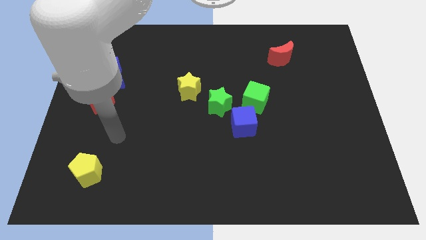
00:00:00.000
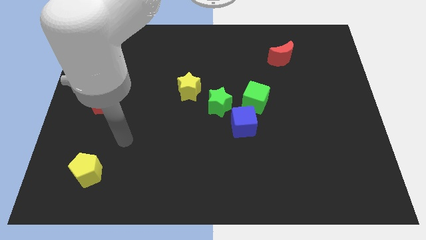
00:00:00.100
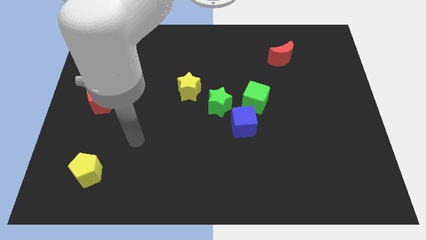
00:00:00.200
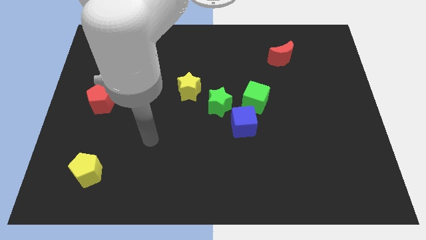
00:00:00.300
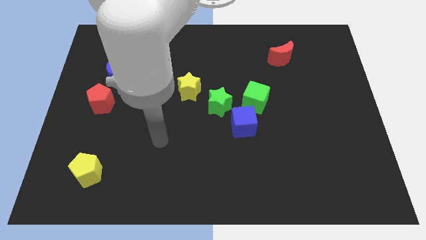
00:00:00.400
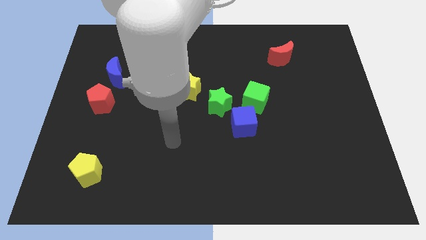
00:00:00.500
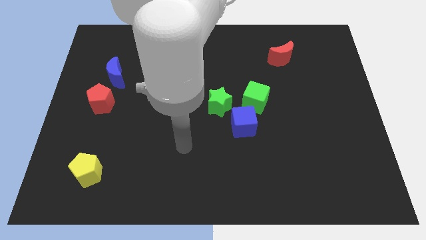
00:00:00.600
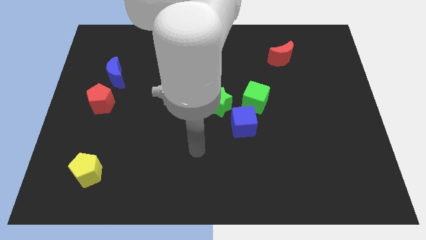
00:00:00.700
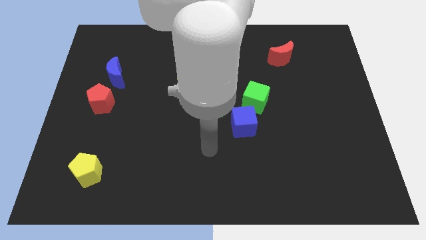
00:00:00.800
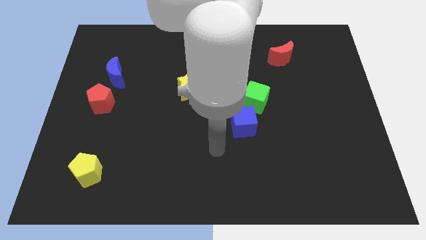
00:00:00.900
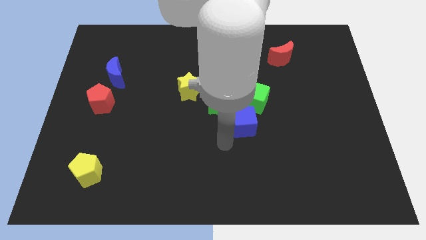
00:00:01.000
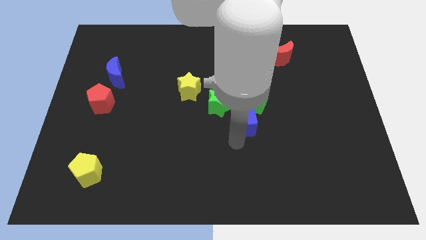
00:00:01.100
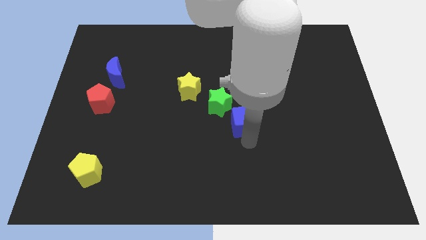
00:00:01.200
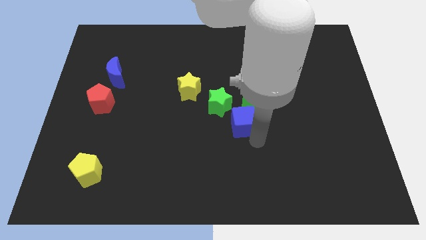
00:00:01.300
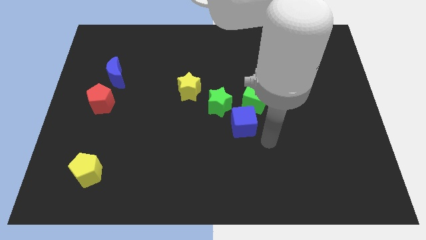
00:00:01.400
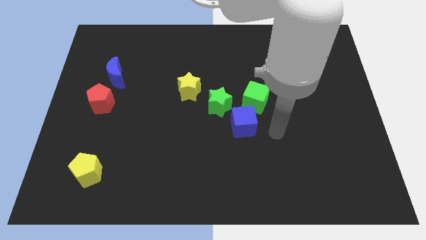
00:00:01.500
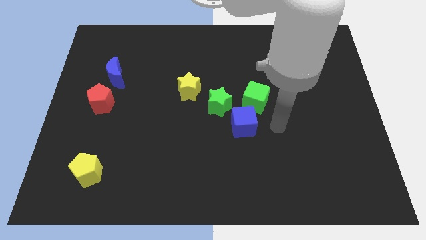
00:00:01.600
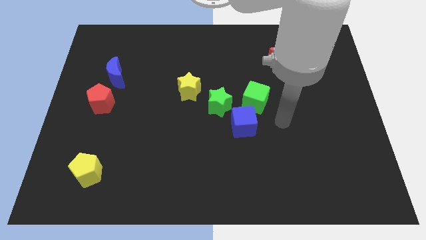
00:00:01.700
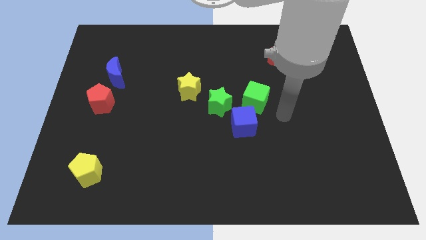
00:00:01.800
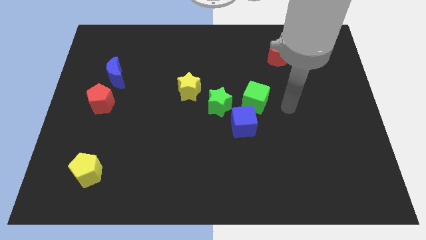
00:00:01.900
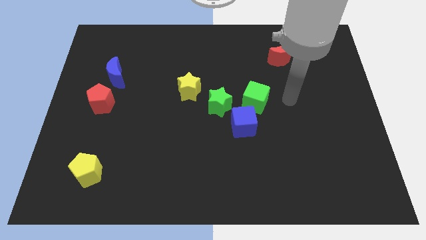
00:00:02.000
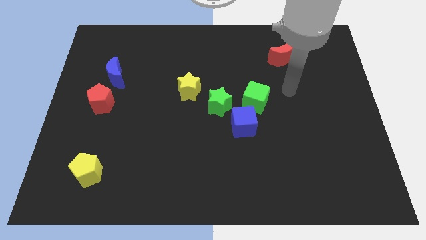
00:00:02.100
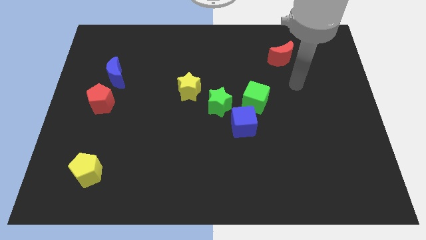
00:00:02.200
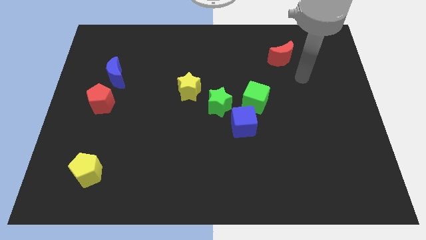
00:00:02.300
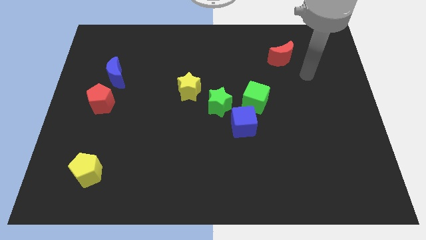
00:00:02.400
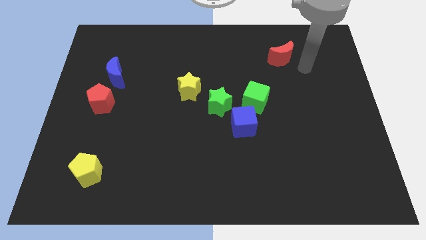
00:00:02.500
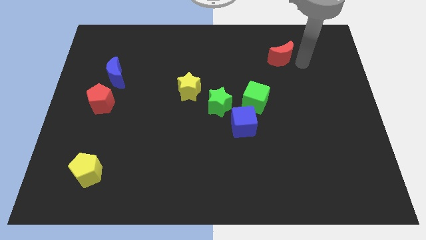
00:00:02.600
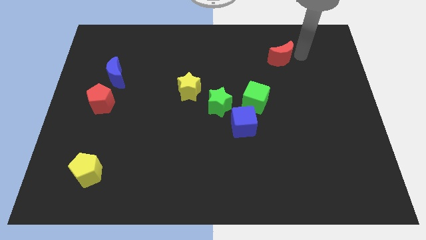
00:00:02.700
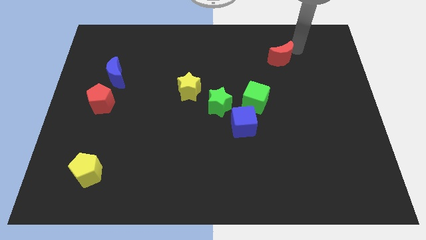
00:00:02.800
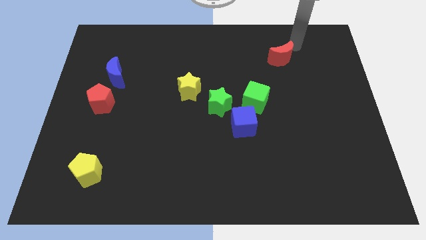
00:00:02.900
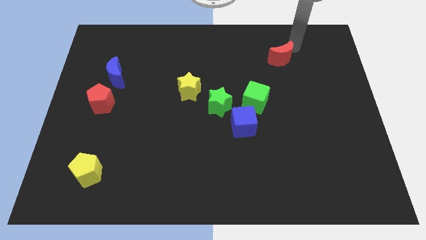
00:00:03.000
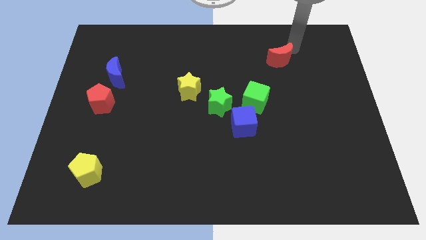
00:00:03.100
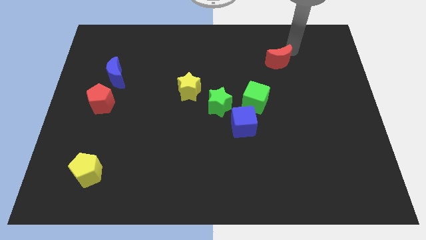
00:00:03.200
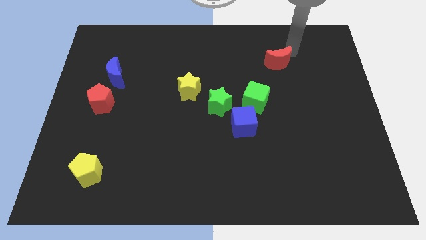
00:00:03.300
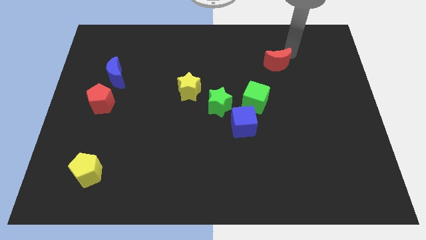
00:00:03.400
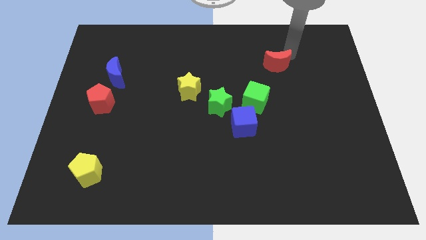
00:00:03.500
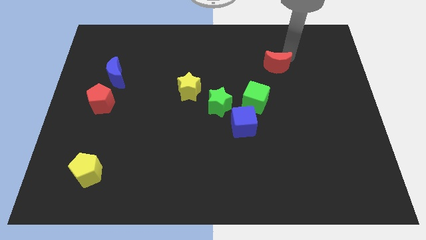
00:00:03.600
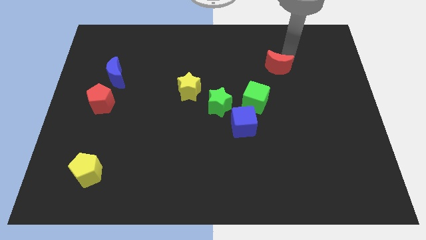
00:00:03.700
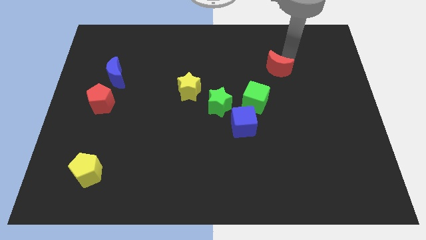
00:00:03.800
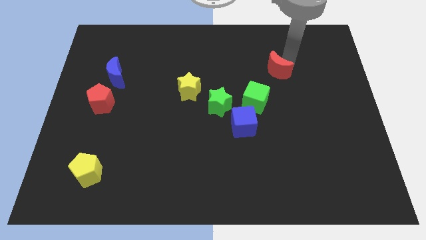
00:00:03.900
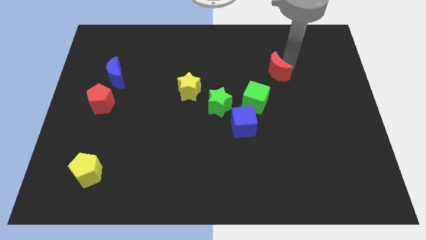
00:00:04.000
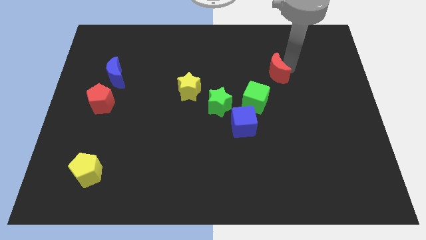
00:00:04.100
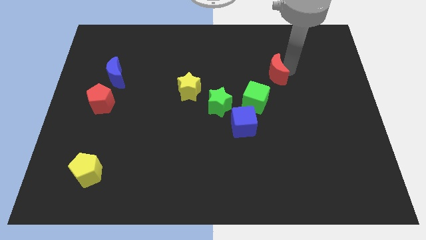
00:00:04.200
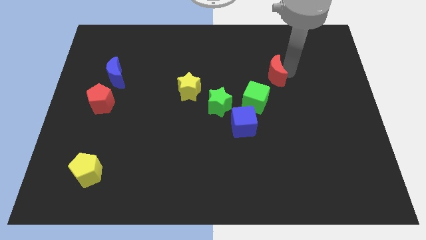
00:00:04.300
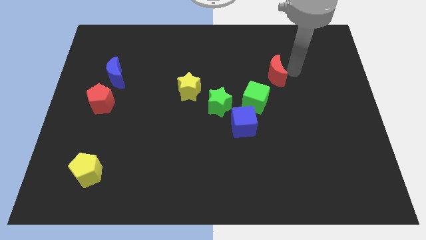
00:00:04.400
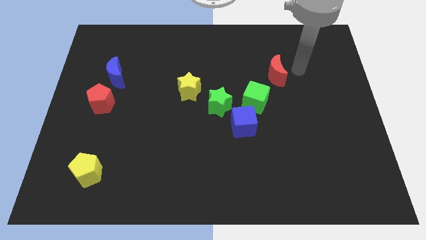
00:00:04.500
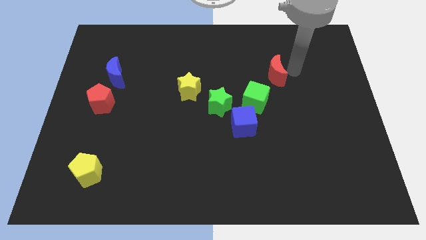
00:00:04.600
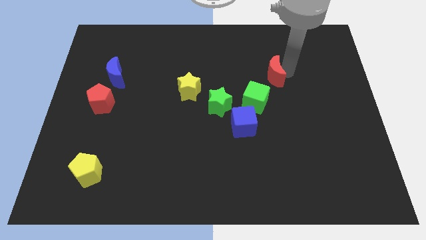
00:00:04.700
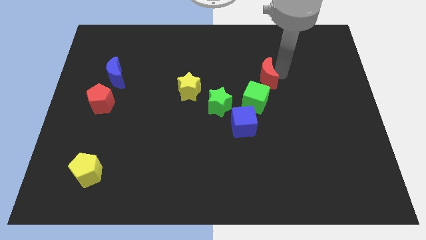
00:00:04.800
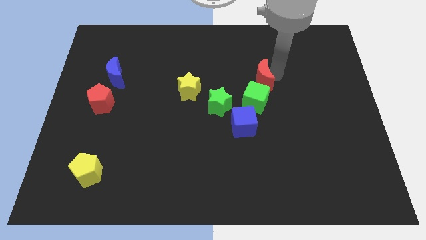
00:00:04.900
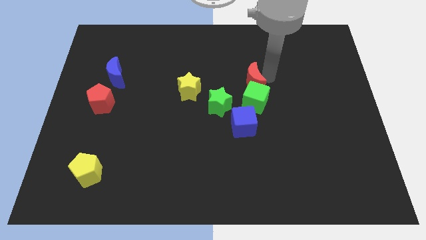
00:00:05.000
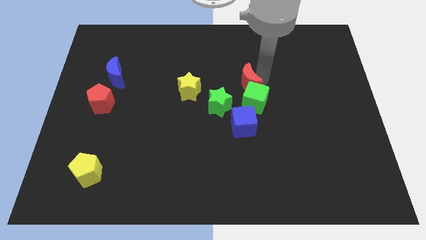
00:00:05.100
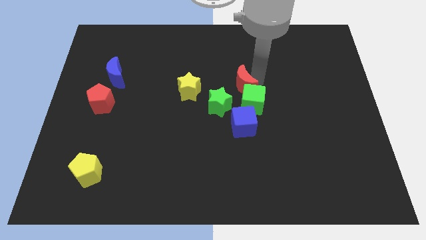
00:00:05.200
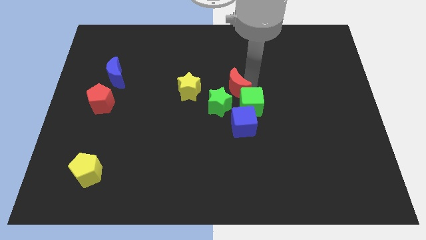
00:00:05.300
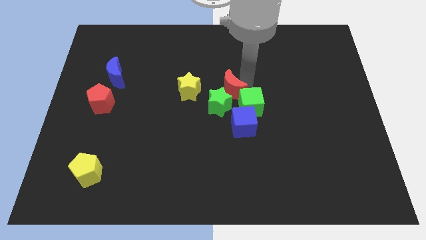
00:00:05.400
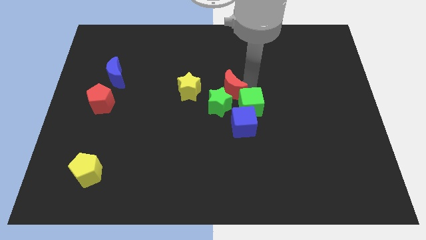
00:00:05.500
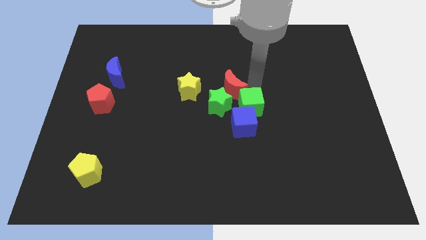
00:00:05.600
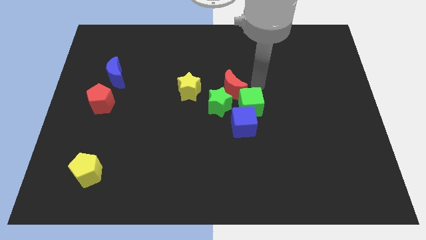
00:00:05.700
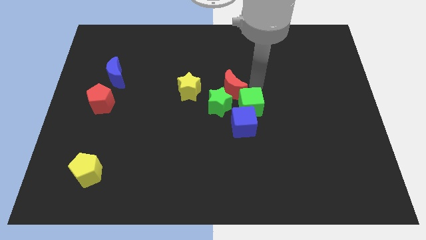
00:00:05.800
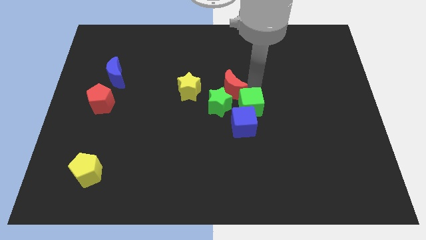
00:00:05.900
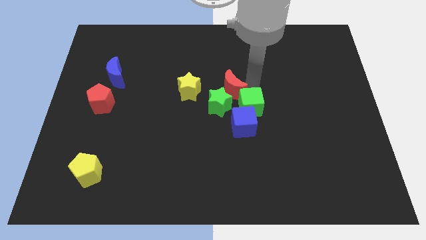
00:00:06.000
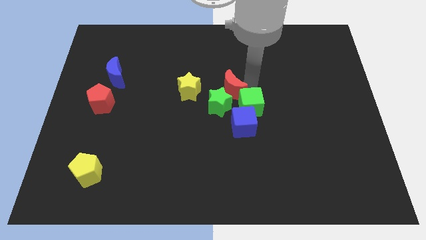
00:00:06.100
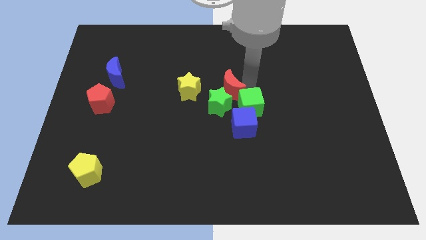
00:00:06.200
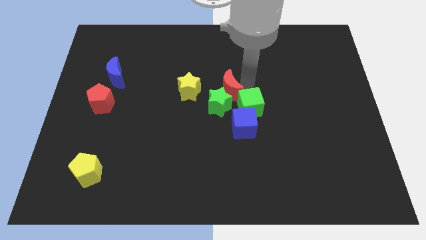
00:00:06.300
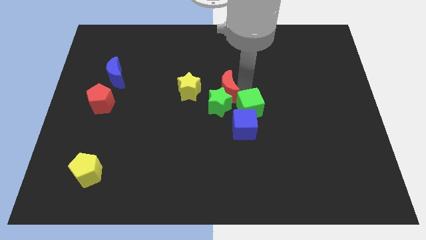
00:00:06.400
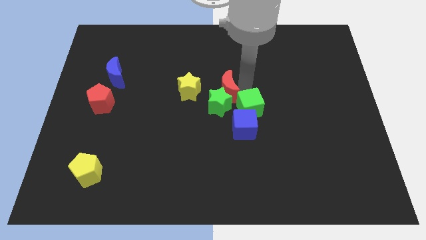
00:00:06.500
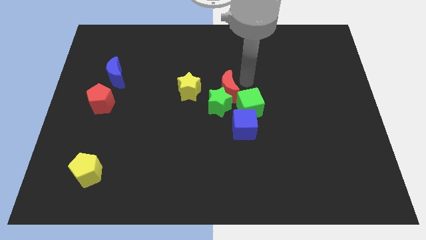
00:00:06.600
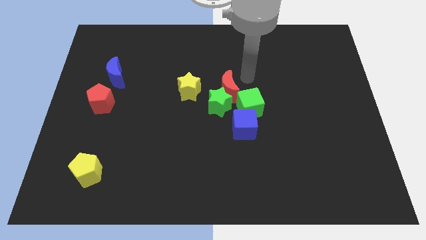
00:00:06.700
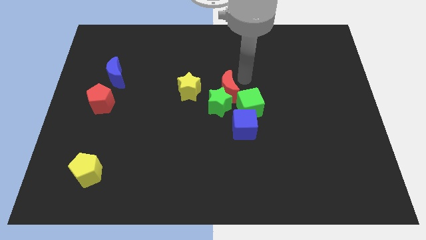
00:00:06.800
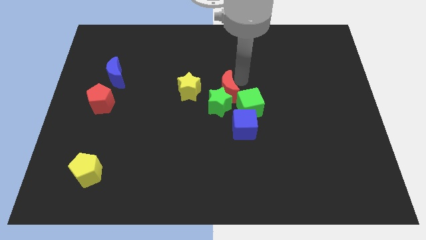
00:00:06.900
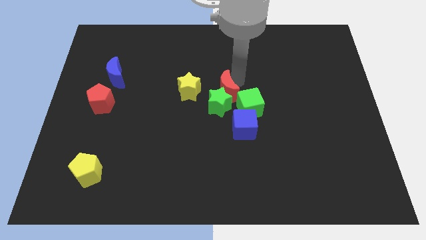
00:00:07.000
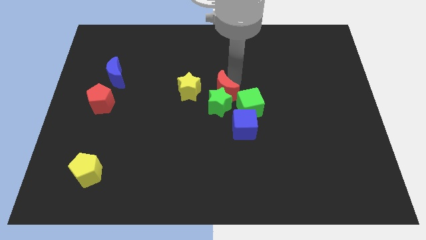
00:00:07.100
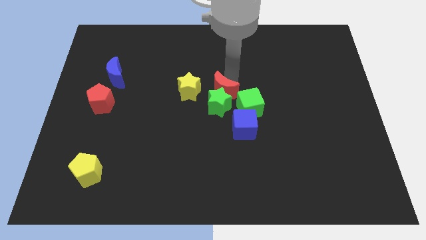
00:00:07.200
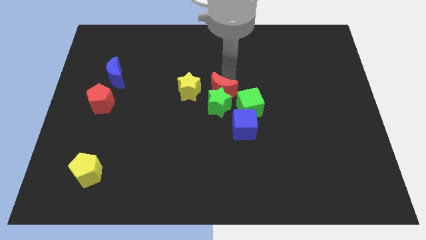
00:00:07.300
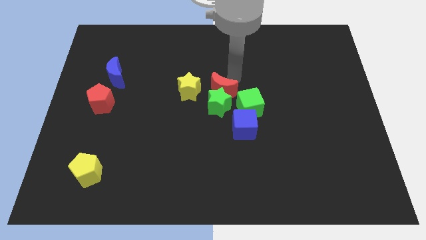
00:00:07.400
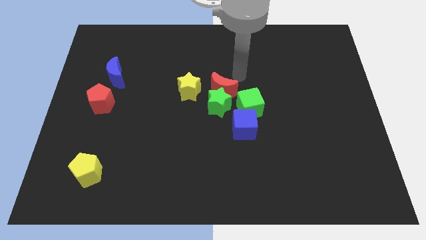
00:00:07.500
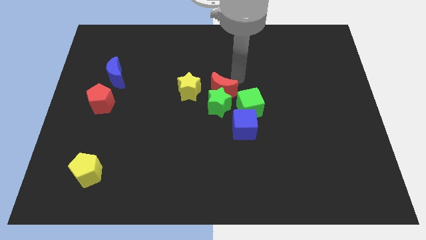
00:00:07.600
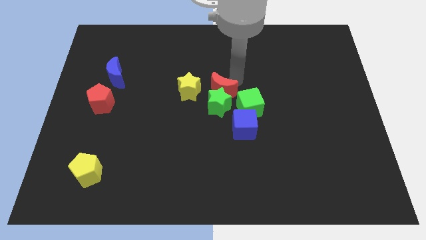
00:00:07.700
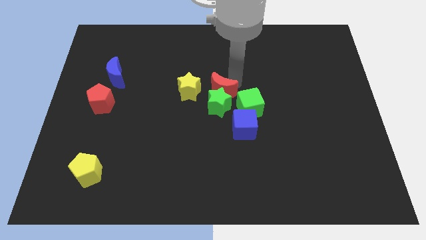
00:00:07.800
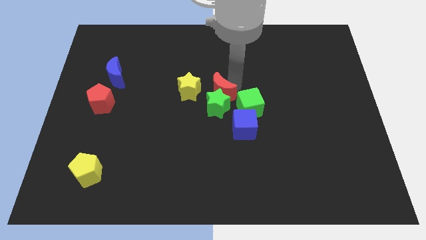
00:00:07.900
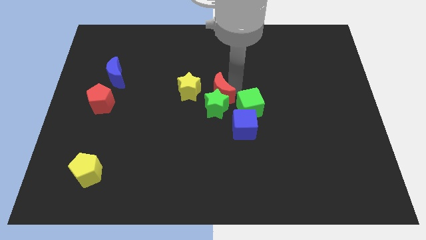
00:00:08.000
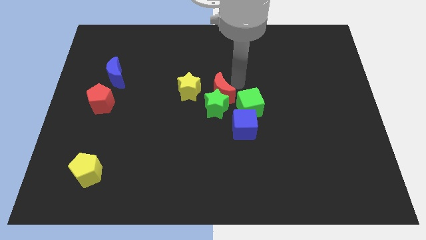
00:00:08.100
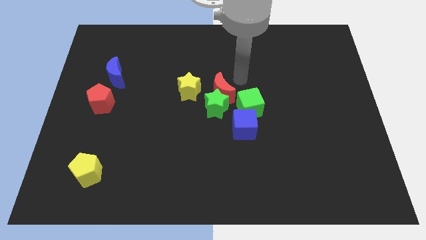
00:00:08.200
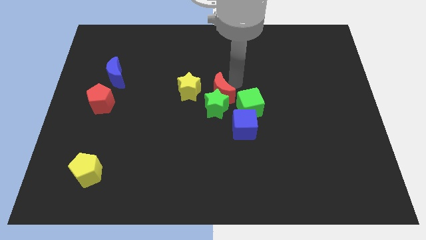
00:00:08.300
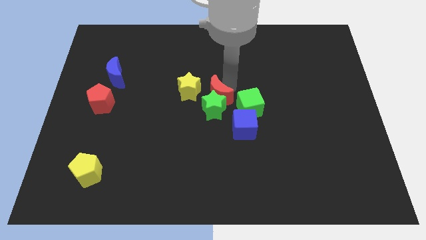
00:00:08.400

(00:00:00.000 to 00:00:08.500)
push the red moon down and left
